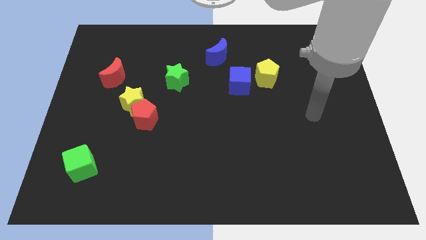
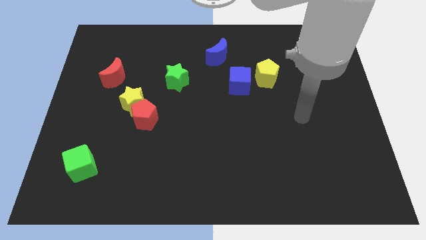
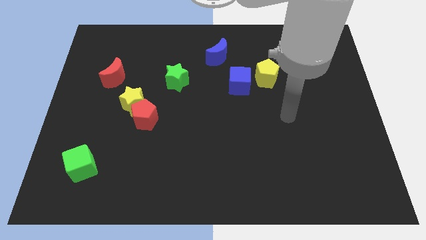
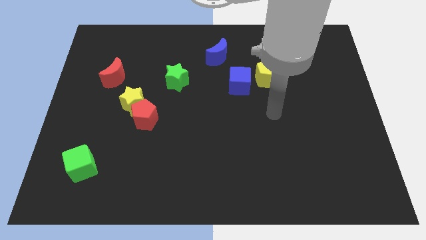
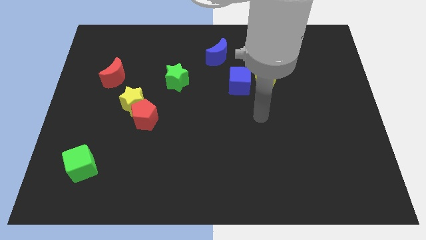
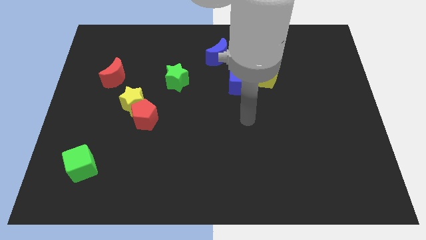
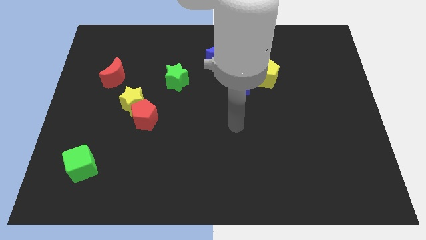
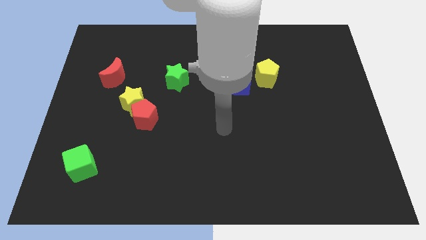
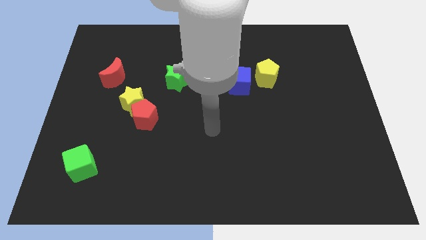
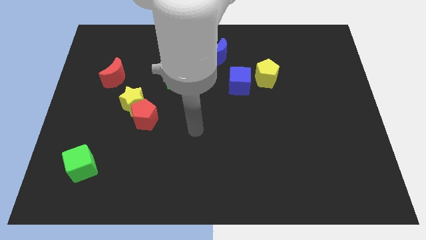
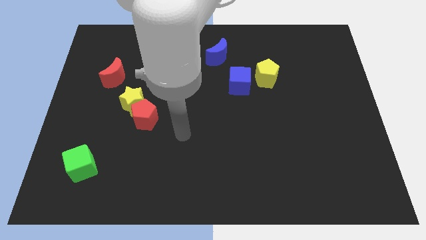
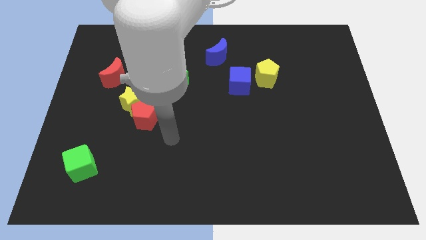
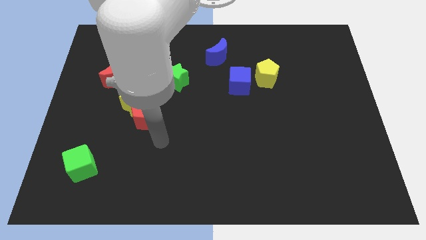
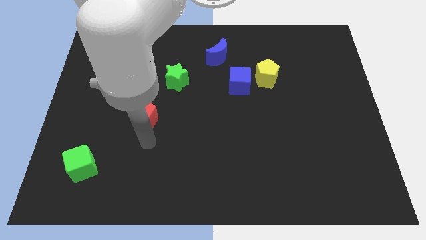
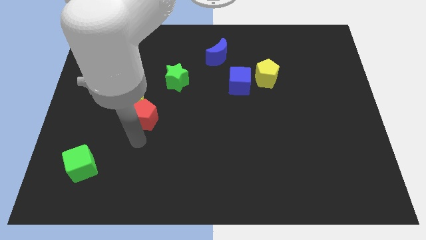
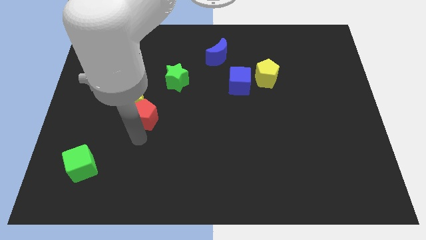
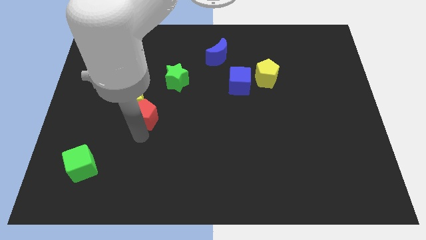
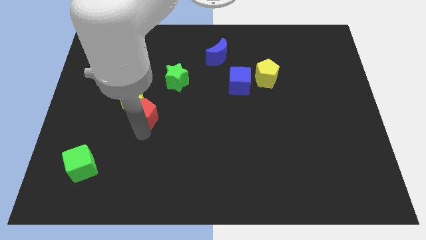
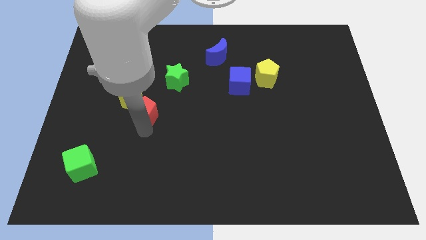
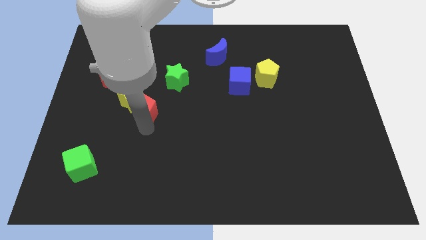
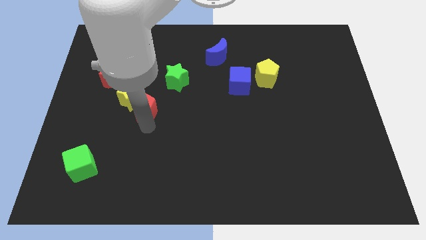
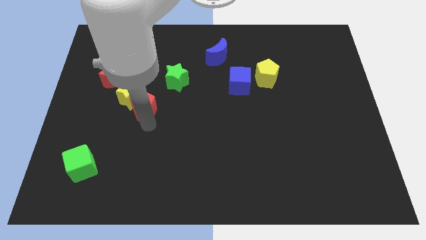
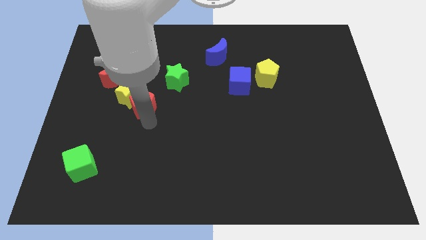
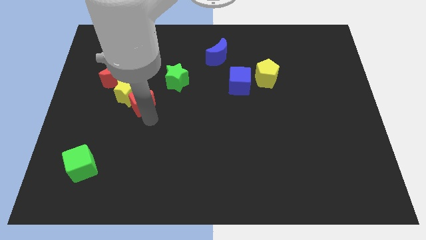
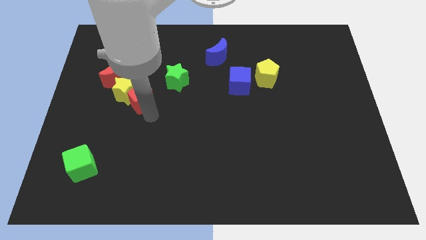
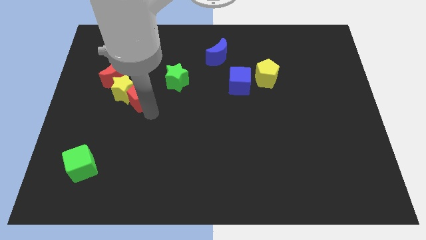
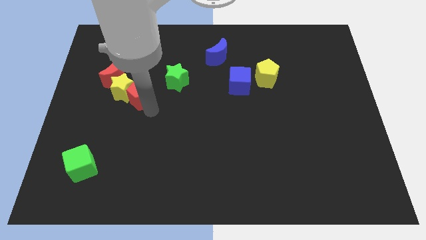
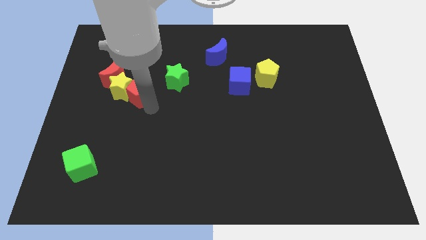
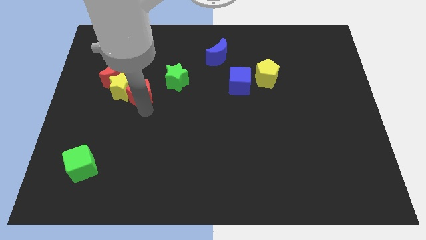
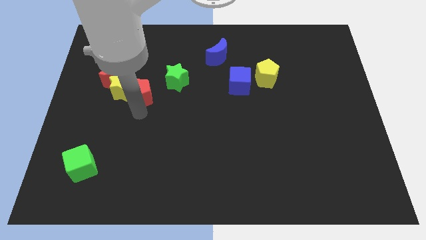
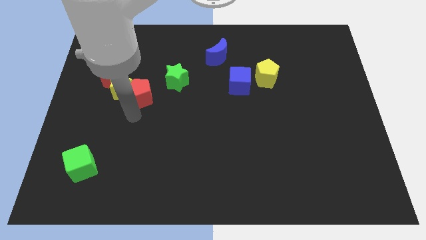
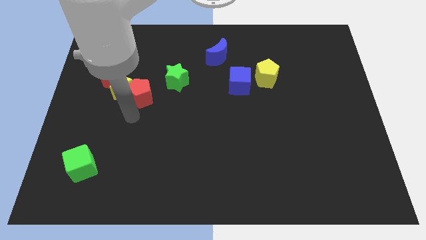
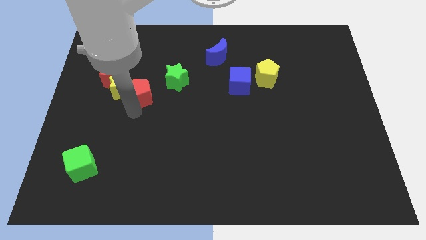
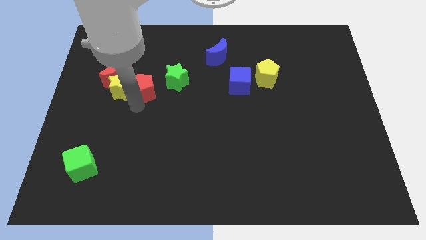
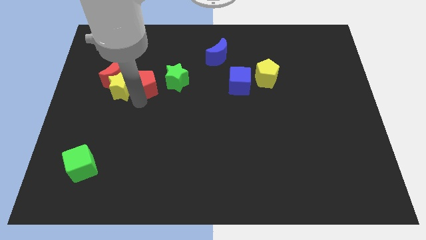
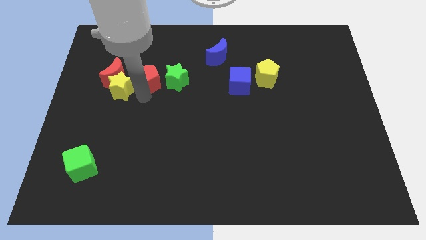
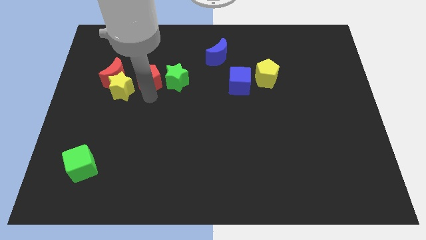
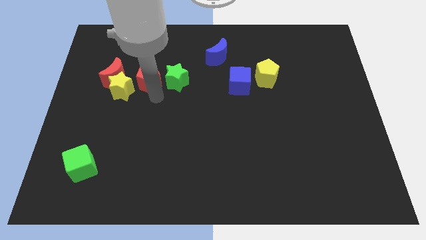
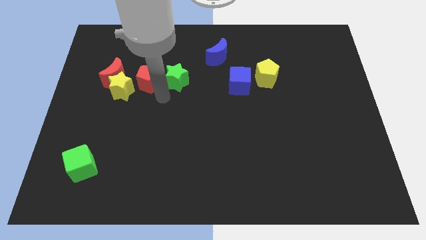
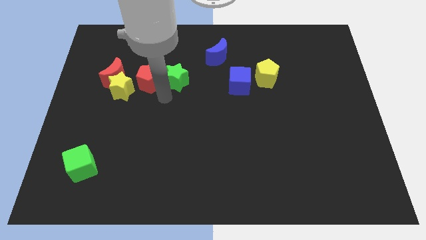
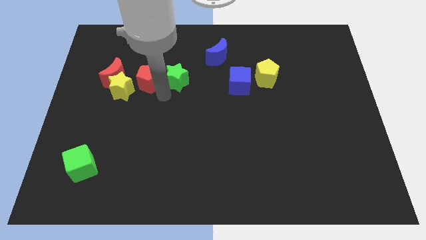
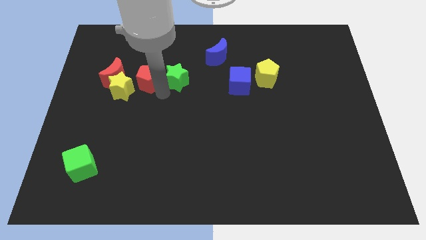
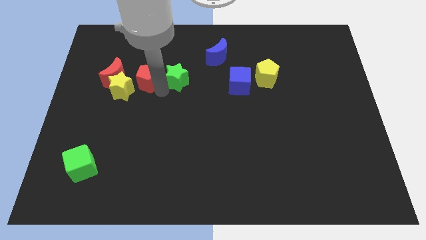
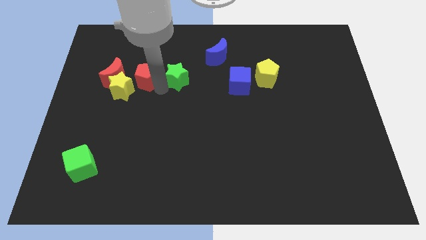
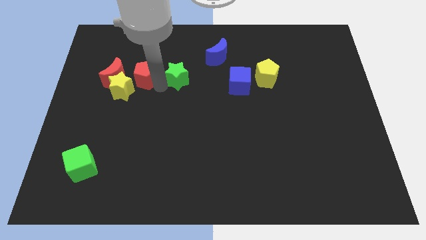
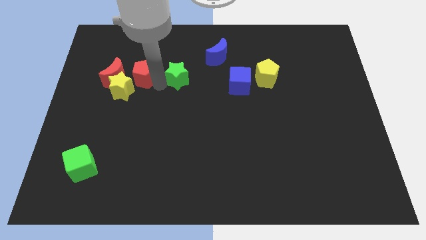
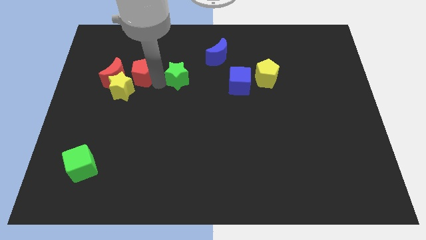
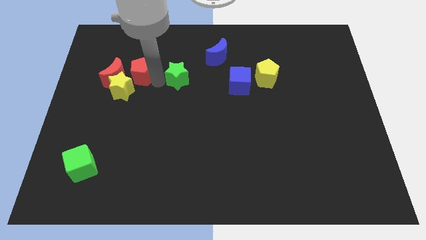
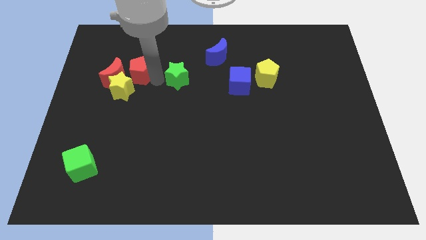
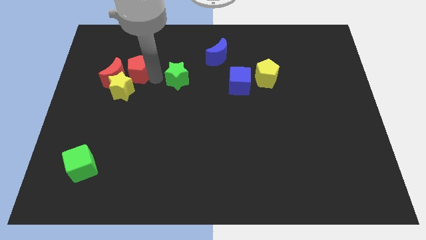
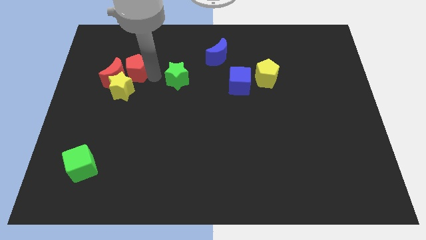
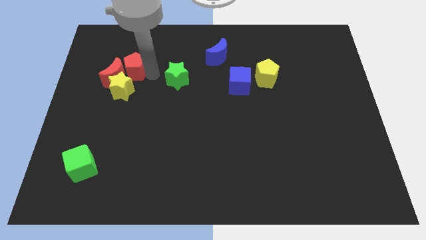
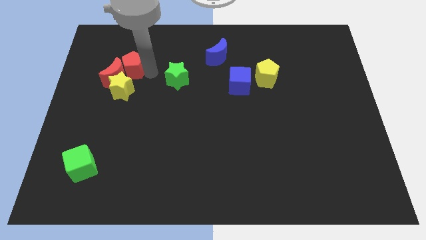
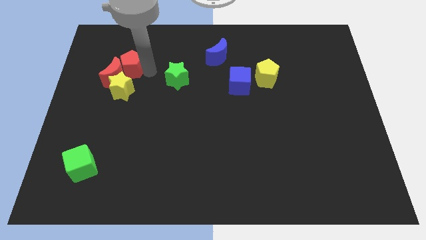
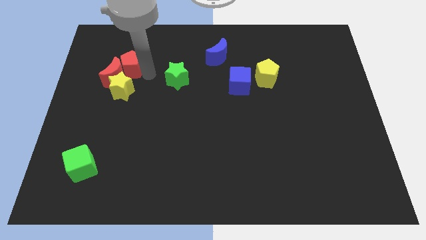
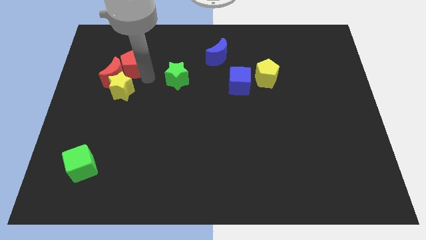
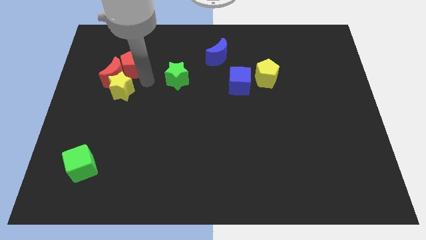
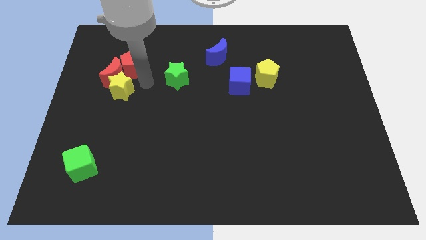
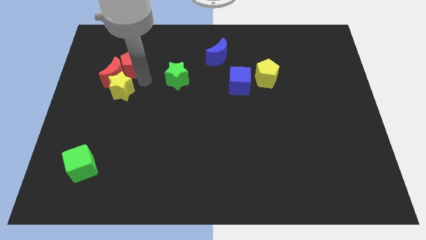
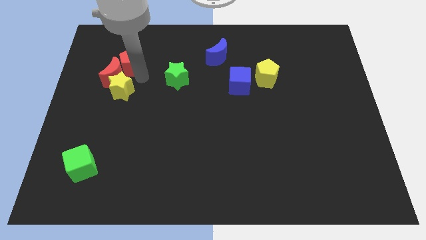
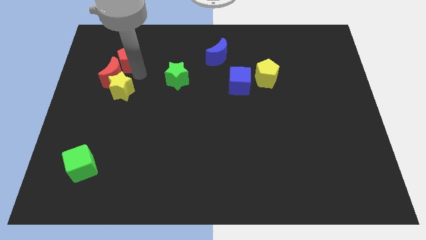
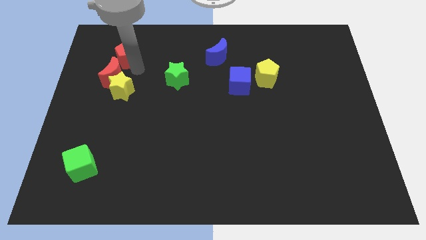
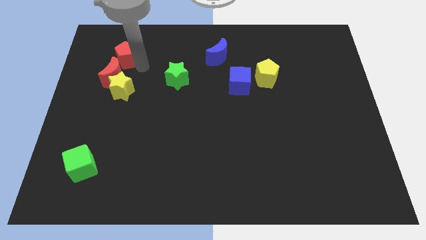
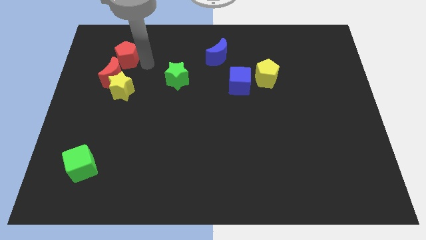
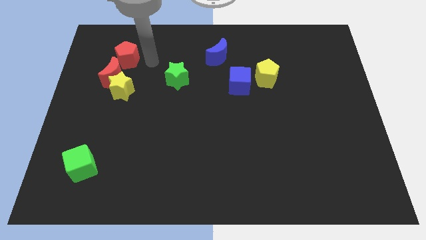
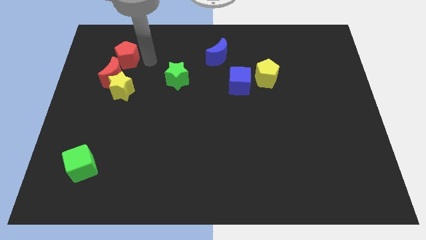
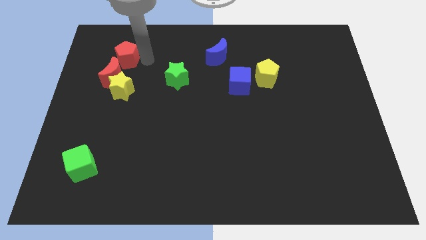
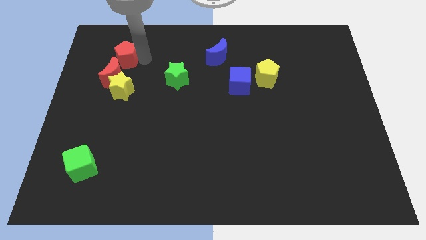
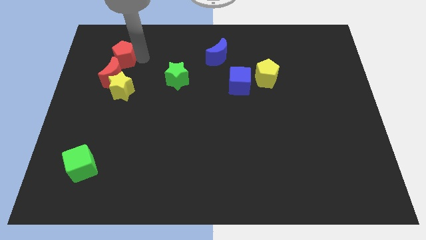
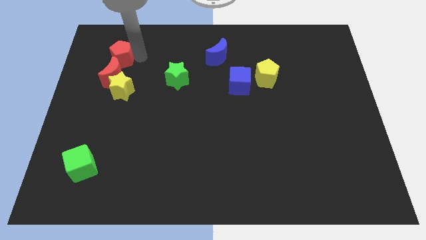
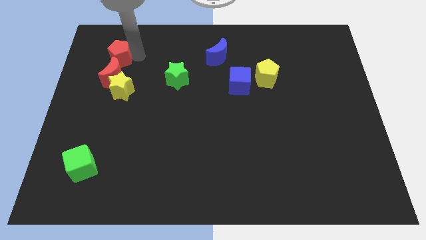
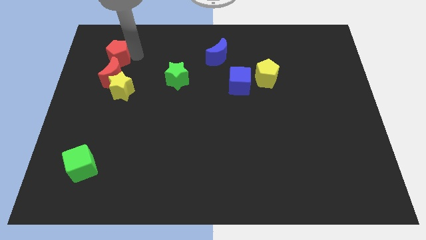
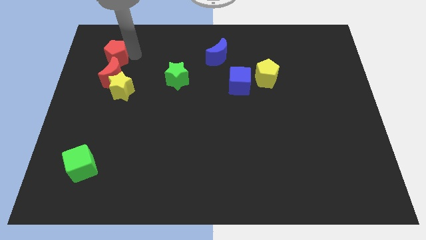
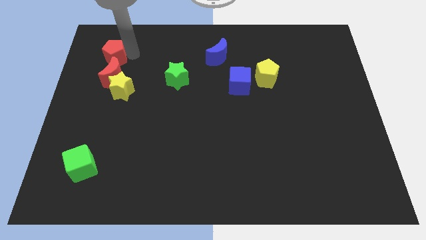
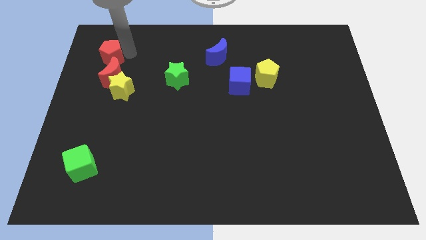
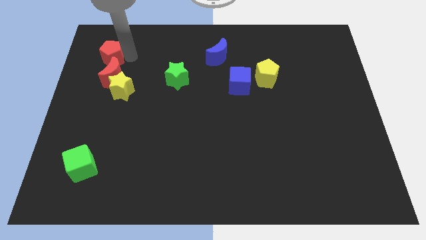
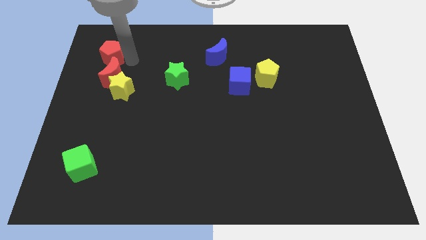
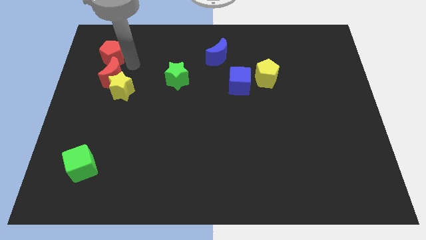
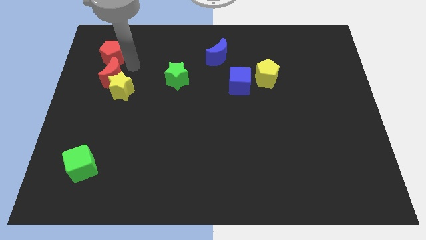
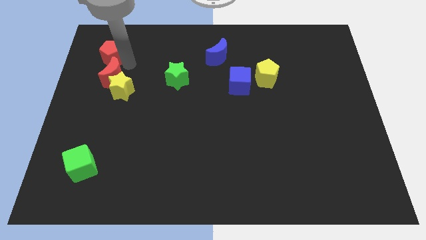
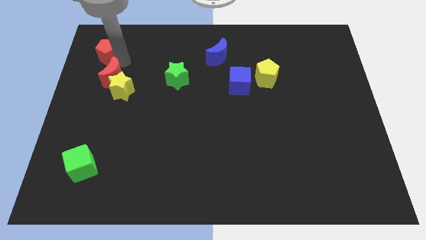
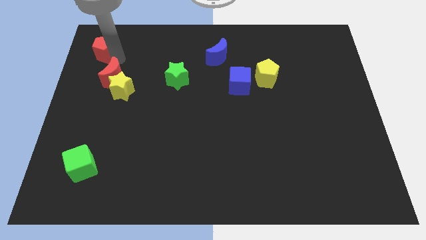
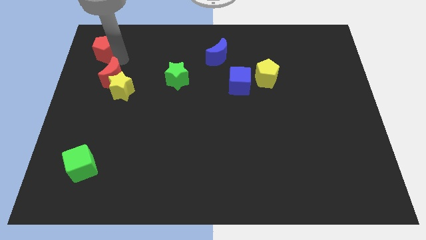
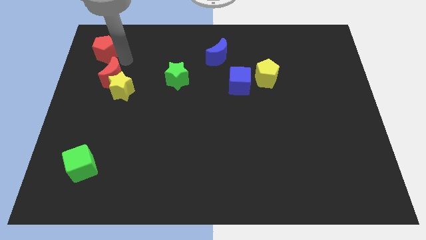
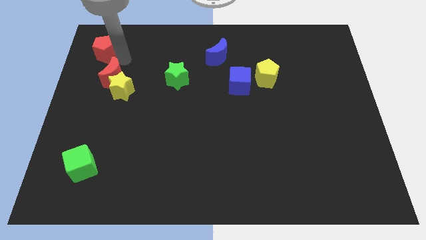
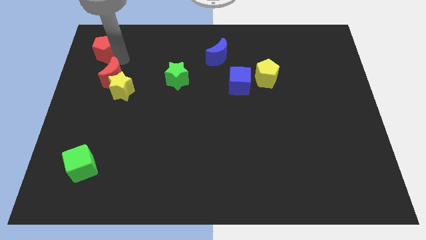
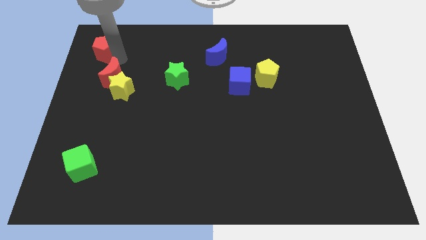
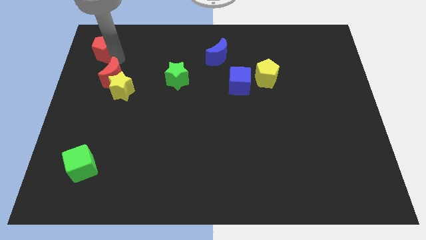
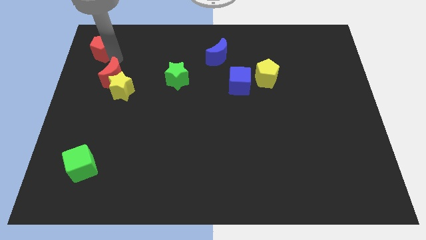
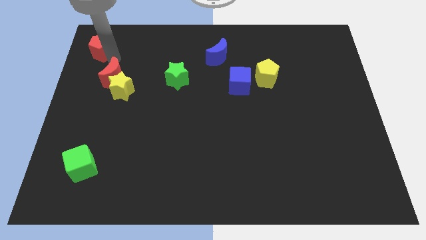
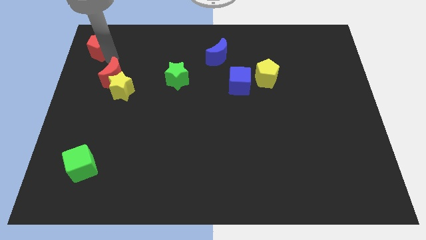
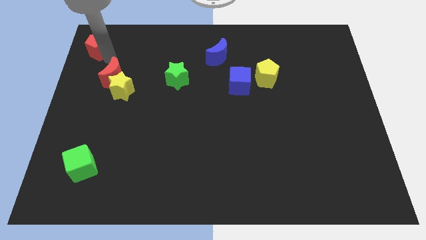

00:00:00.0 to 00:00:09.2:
push the red pentagon to the top left corner
